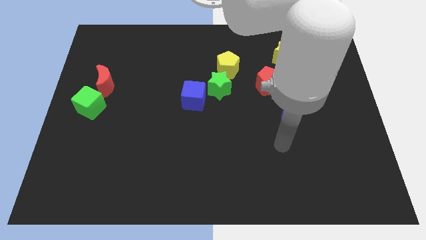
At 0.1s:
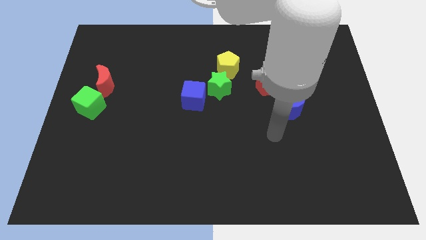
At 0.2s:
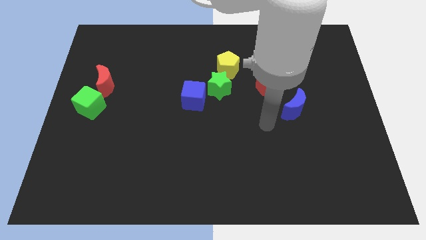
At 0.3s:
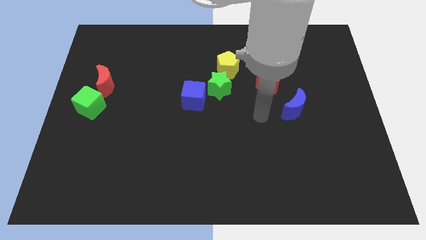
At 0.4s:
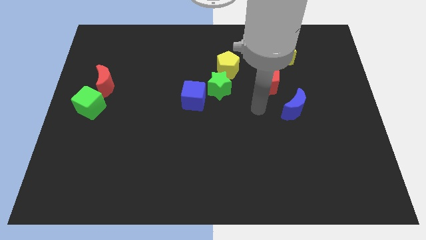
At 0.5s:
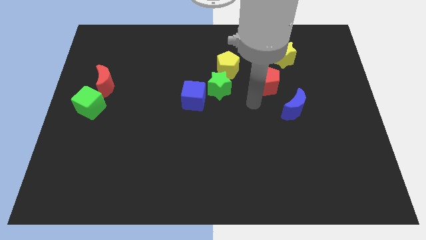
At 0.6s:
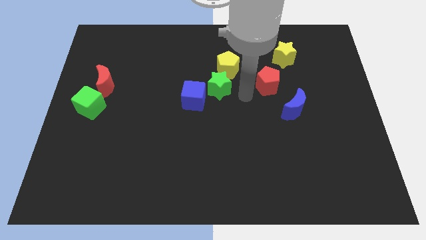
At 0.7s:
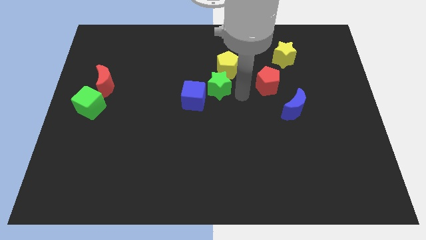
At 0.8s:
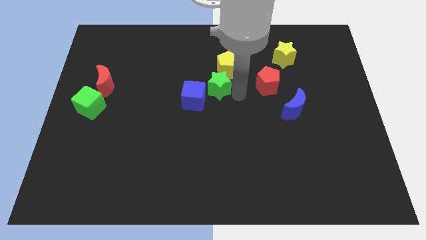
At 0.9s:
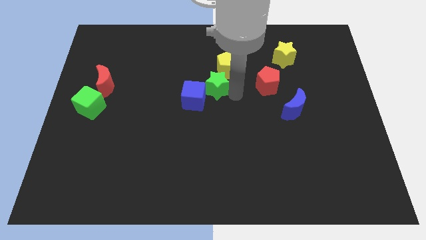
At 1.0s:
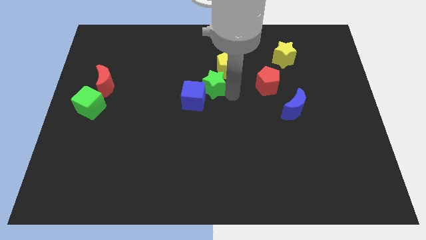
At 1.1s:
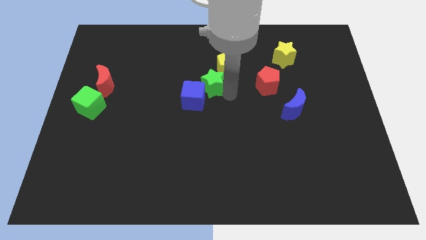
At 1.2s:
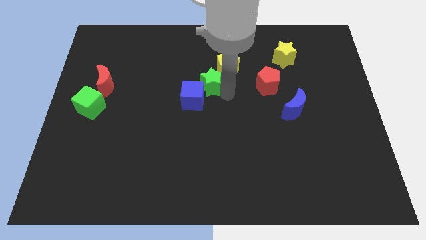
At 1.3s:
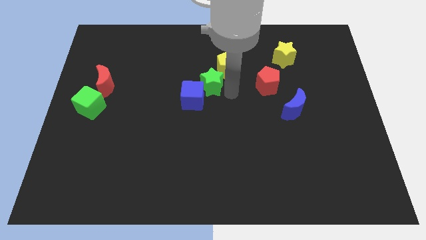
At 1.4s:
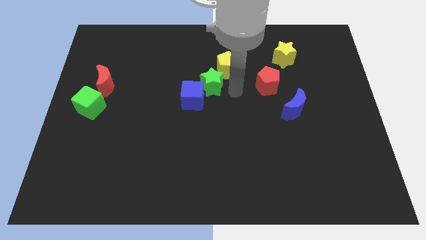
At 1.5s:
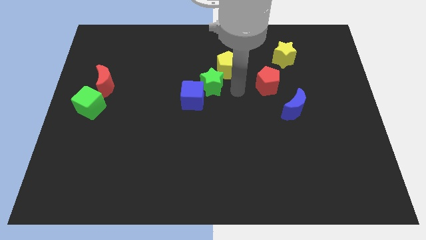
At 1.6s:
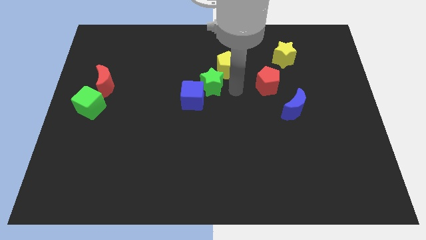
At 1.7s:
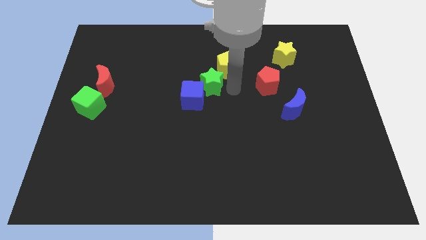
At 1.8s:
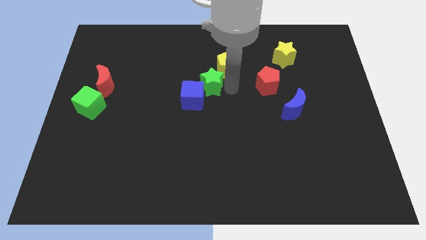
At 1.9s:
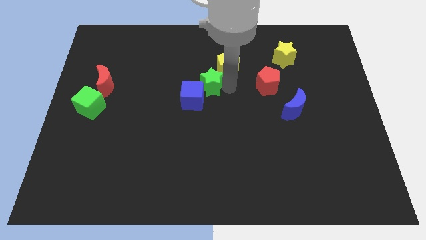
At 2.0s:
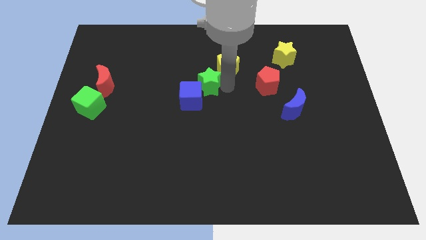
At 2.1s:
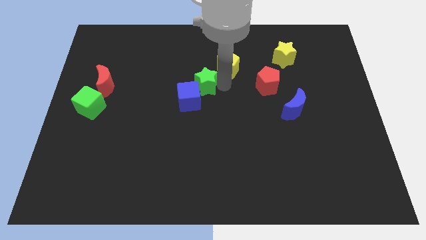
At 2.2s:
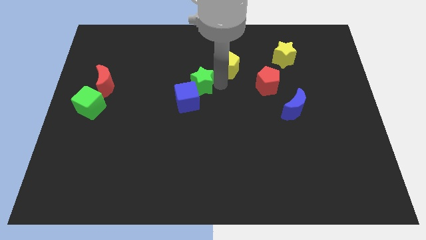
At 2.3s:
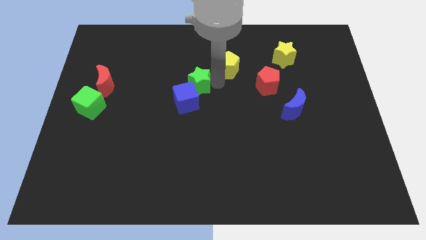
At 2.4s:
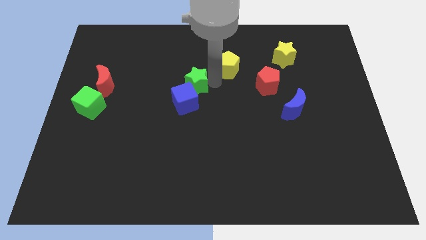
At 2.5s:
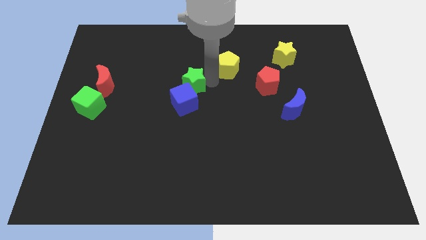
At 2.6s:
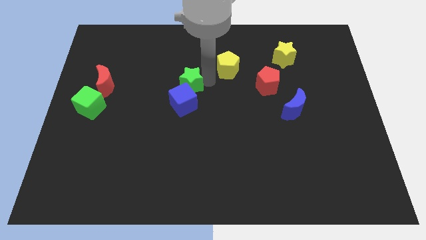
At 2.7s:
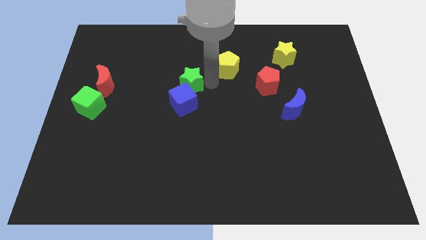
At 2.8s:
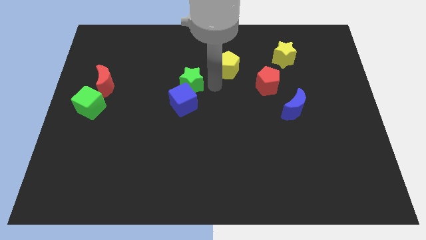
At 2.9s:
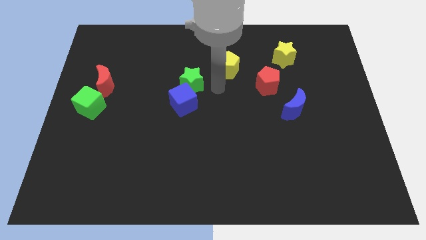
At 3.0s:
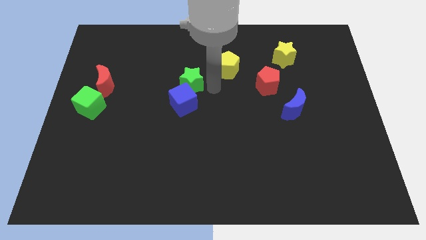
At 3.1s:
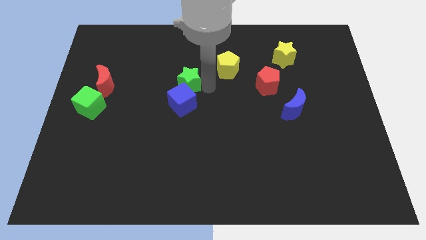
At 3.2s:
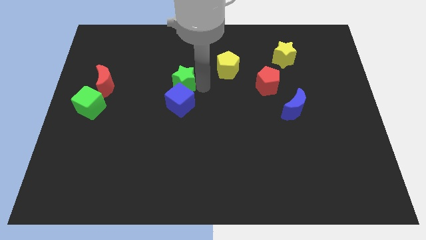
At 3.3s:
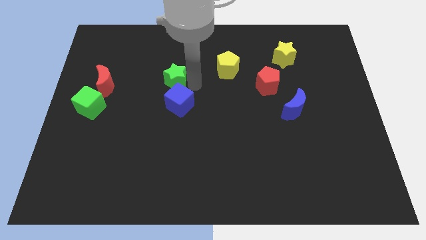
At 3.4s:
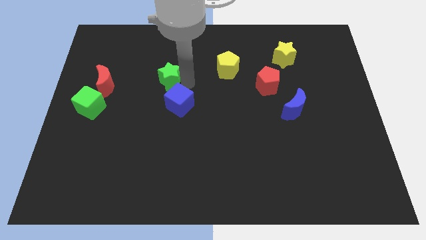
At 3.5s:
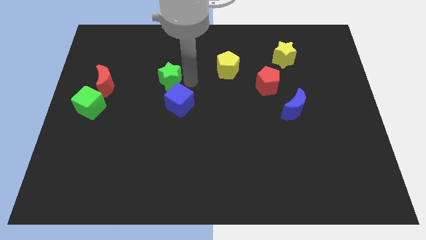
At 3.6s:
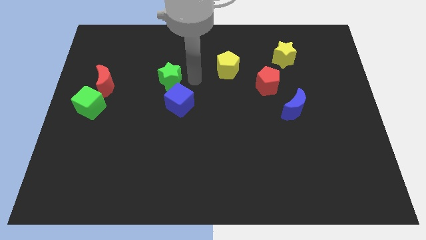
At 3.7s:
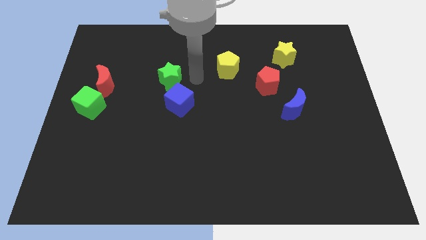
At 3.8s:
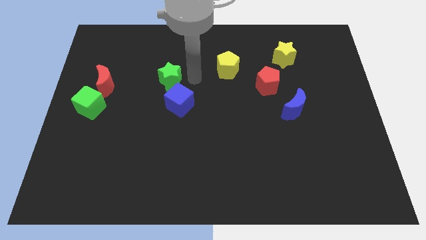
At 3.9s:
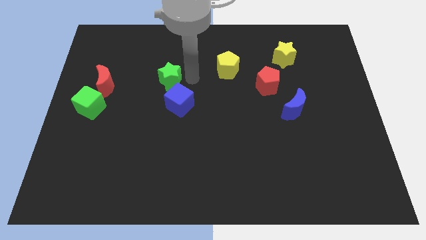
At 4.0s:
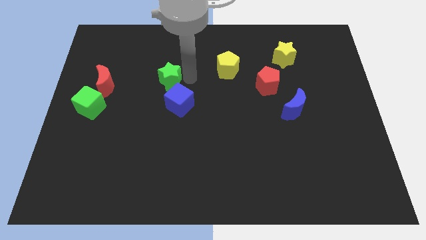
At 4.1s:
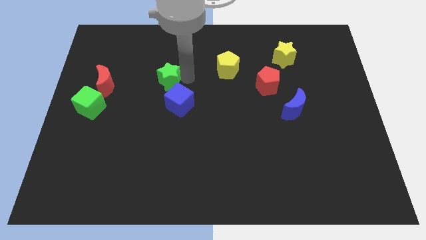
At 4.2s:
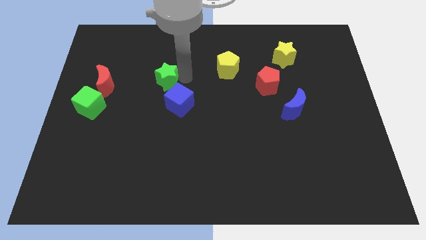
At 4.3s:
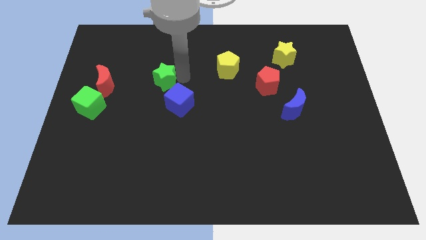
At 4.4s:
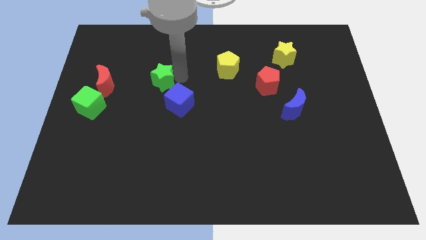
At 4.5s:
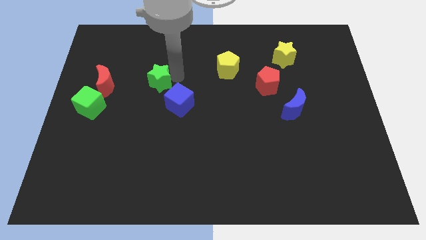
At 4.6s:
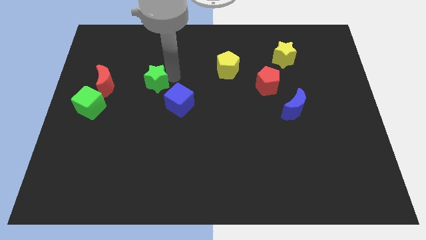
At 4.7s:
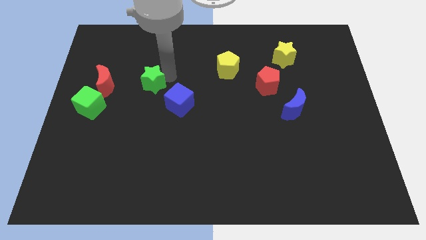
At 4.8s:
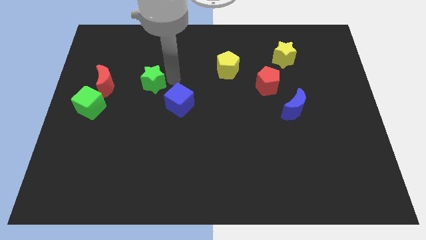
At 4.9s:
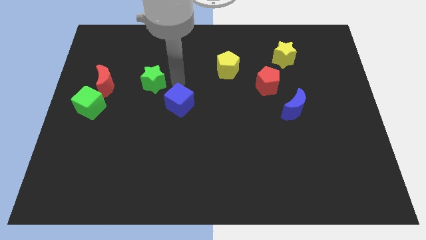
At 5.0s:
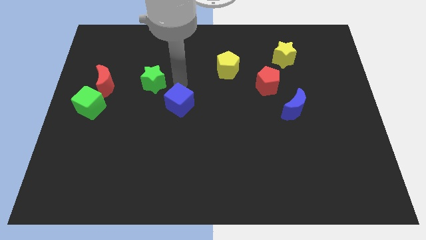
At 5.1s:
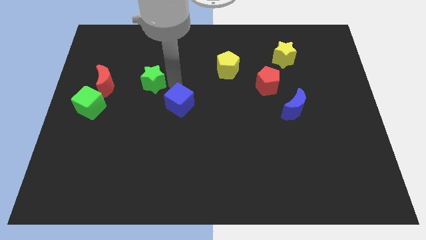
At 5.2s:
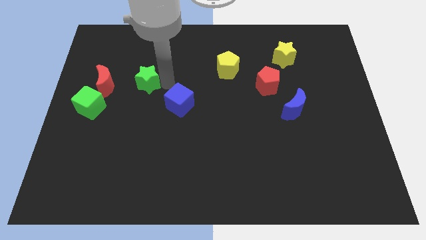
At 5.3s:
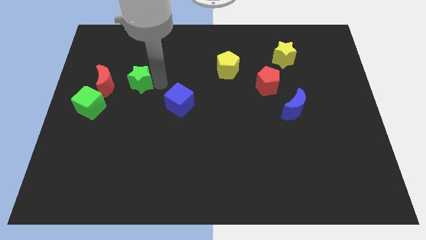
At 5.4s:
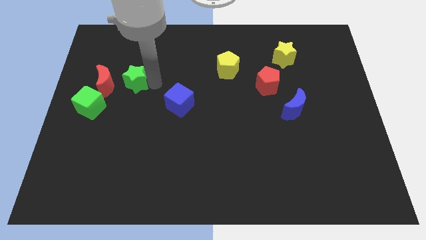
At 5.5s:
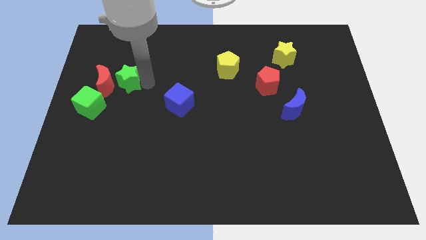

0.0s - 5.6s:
put the green star to the red moon

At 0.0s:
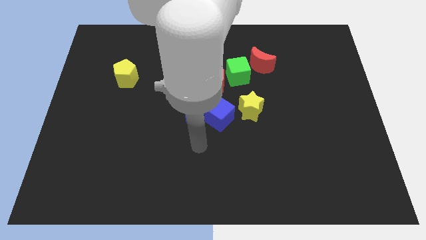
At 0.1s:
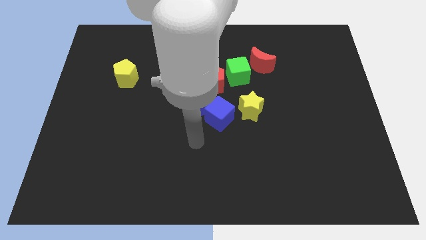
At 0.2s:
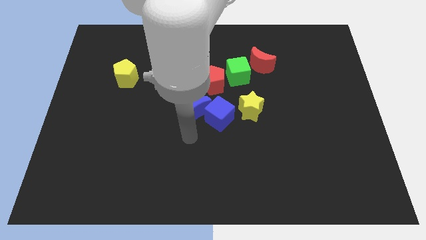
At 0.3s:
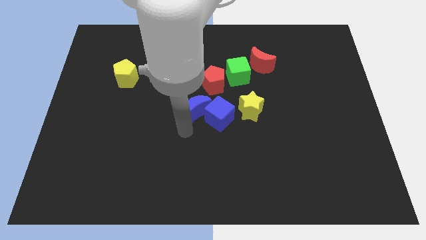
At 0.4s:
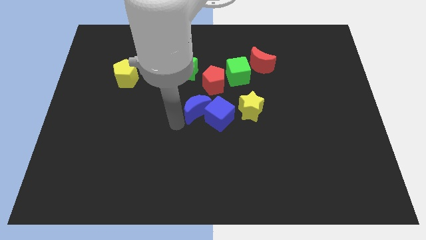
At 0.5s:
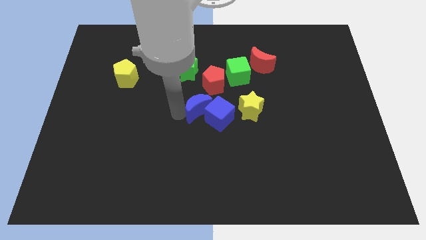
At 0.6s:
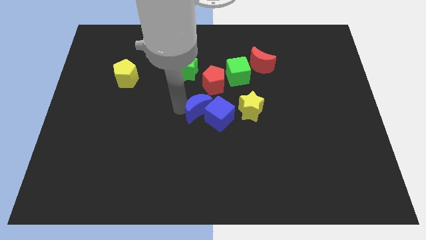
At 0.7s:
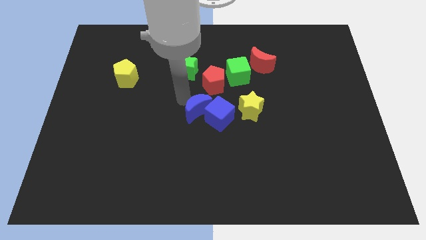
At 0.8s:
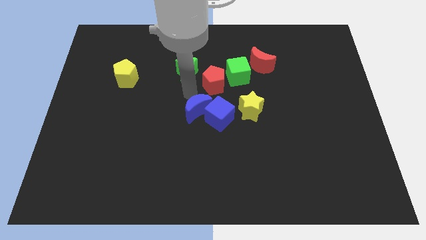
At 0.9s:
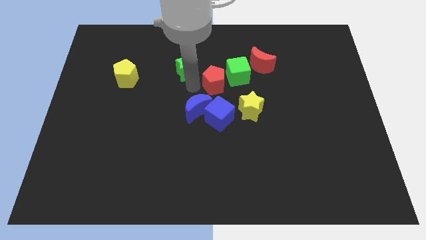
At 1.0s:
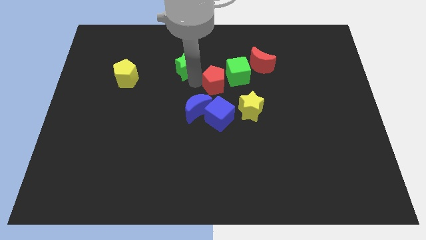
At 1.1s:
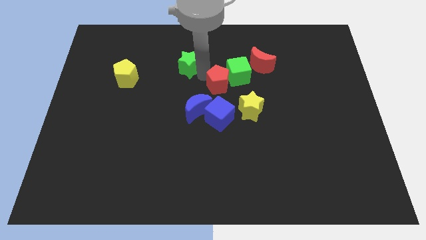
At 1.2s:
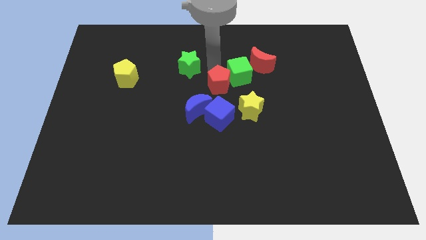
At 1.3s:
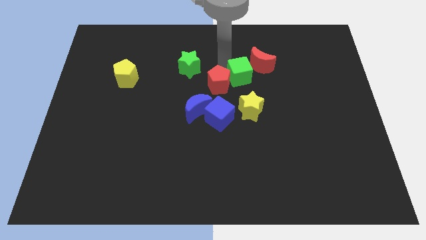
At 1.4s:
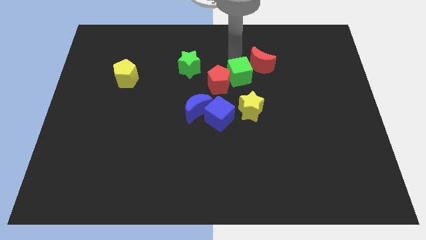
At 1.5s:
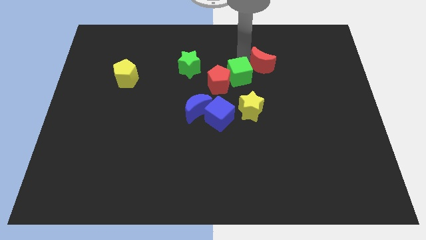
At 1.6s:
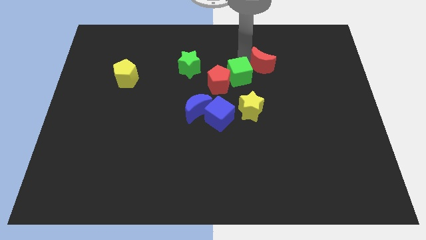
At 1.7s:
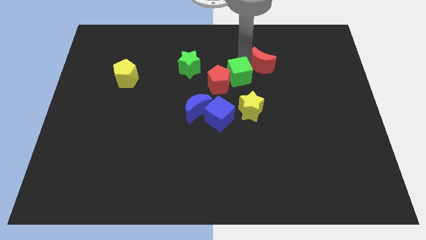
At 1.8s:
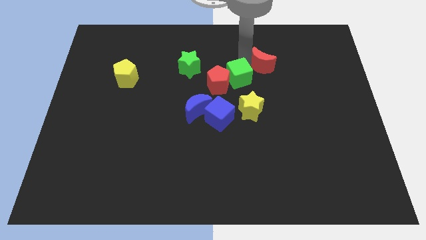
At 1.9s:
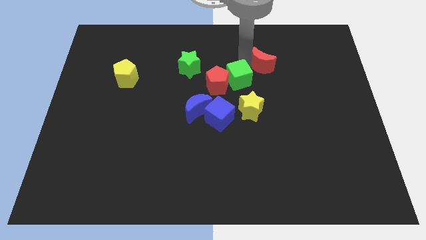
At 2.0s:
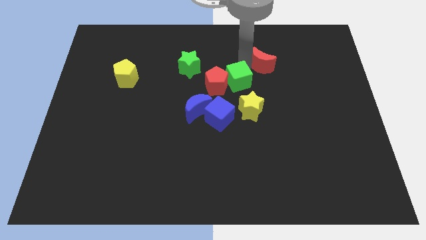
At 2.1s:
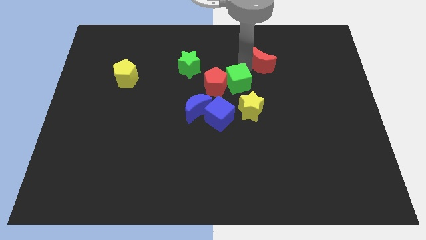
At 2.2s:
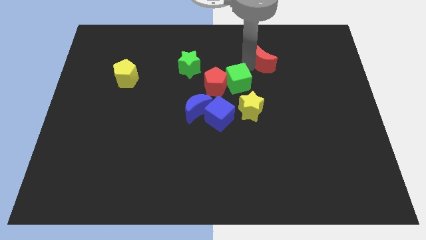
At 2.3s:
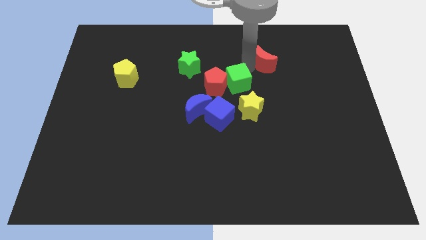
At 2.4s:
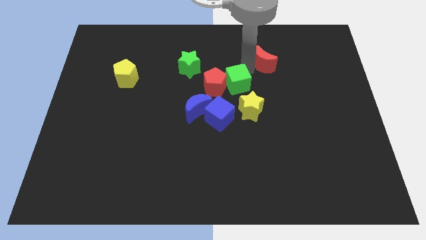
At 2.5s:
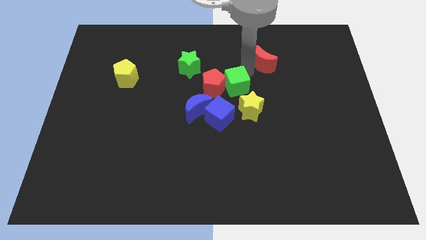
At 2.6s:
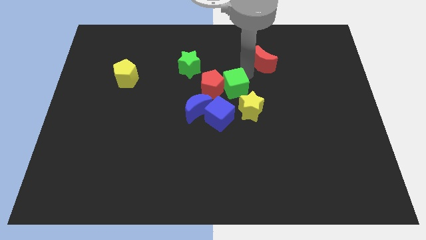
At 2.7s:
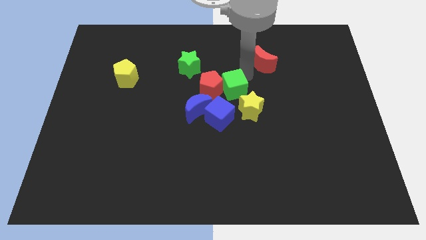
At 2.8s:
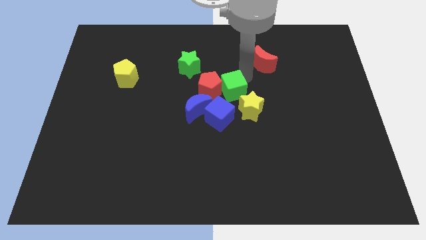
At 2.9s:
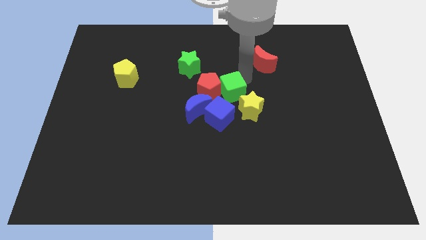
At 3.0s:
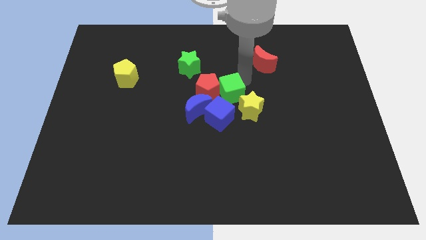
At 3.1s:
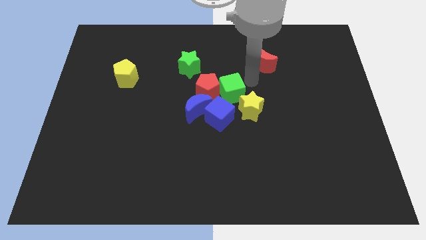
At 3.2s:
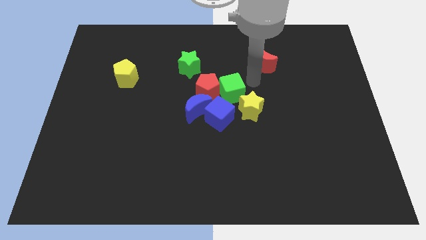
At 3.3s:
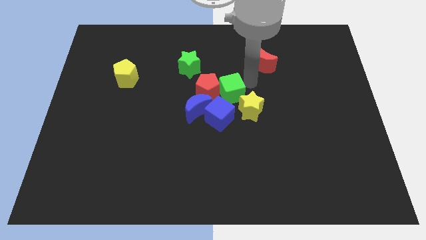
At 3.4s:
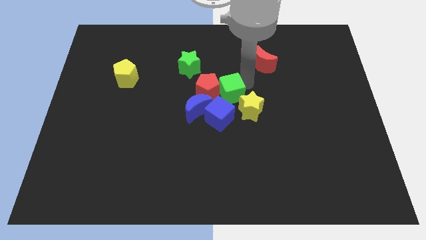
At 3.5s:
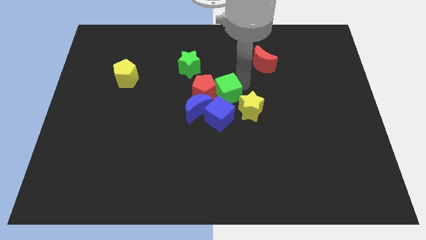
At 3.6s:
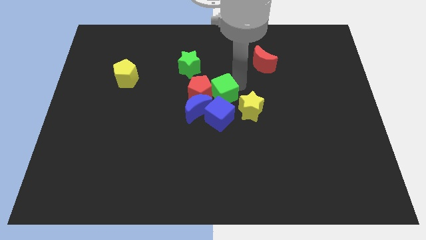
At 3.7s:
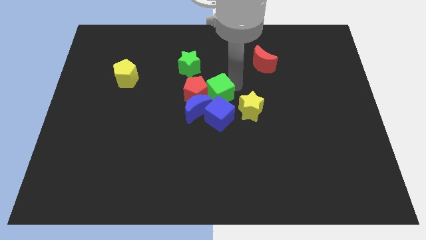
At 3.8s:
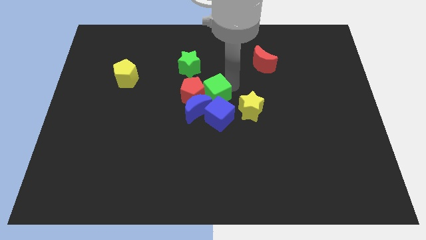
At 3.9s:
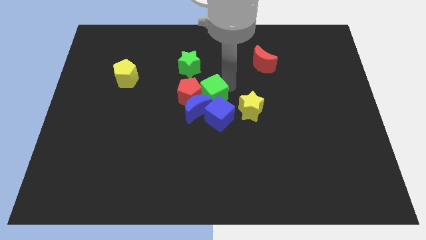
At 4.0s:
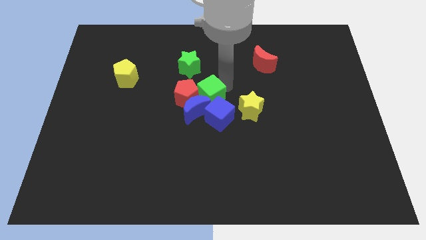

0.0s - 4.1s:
slide the green cube next to the blue moon
